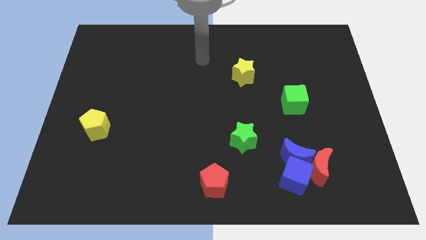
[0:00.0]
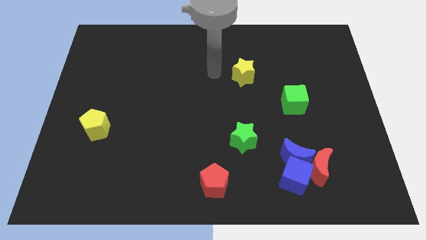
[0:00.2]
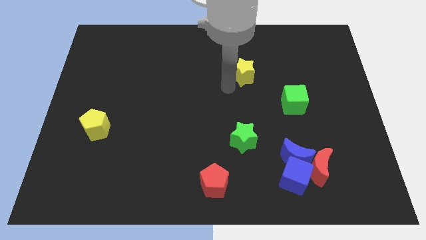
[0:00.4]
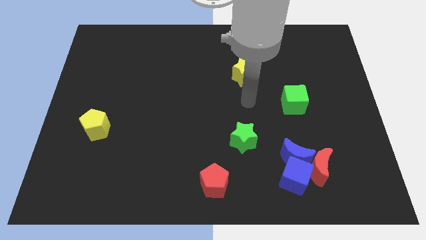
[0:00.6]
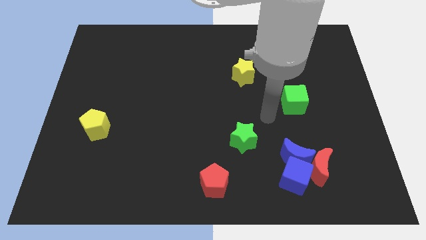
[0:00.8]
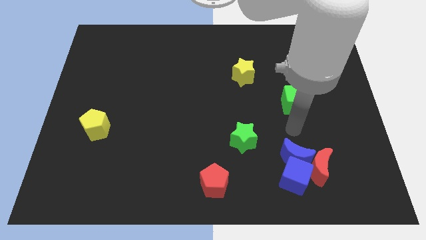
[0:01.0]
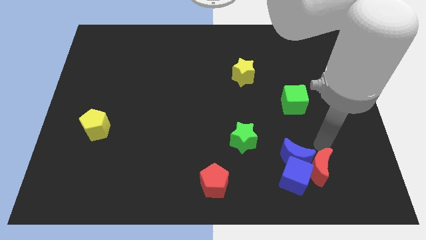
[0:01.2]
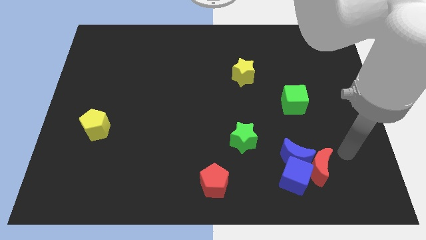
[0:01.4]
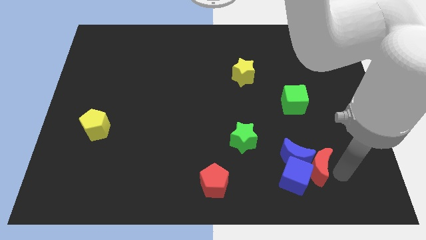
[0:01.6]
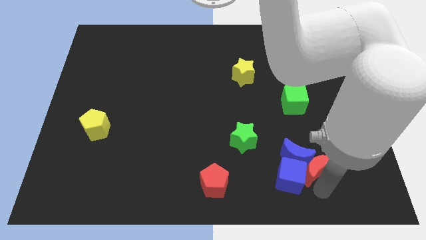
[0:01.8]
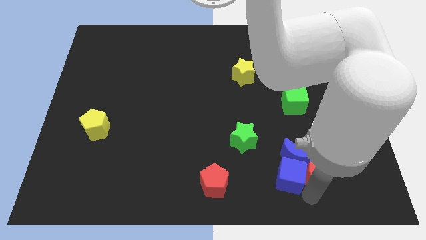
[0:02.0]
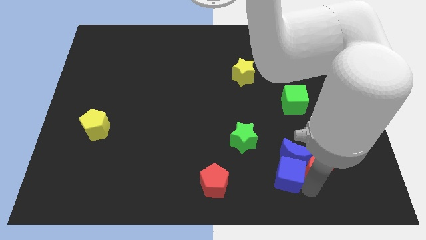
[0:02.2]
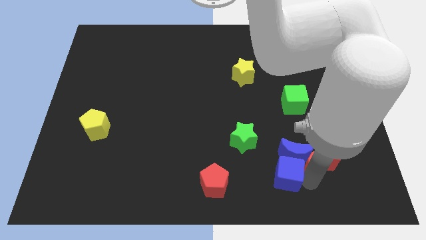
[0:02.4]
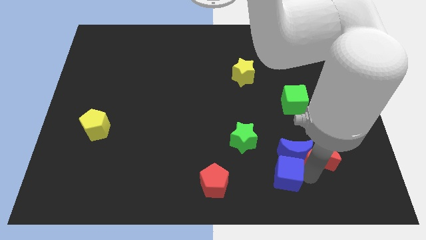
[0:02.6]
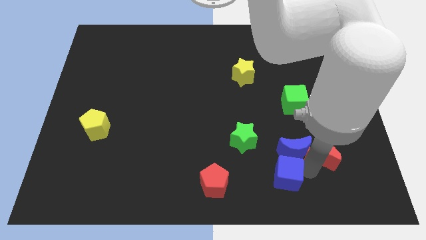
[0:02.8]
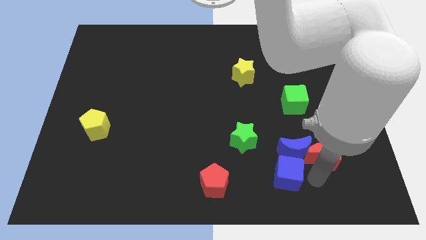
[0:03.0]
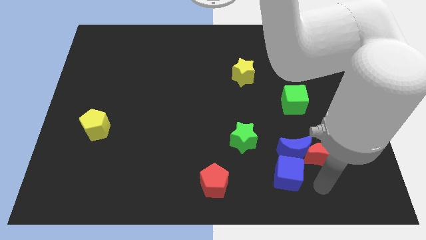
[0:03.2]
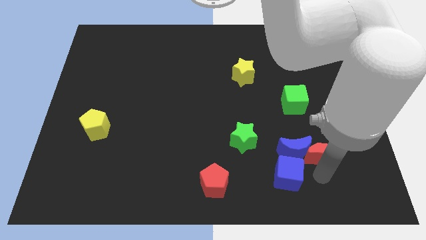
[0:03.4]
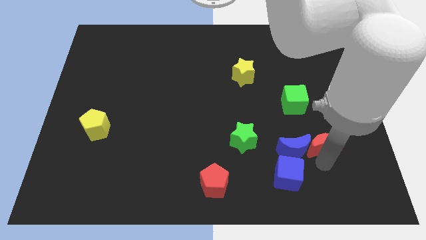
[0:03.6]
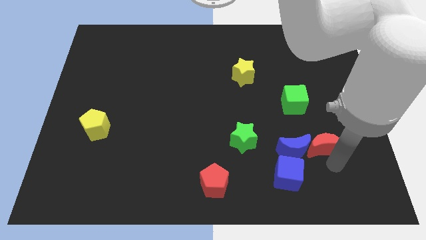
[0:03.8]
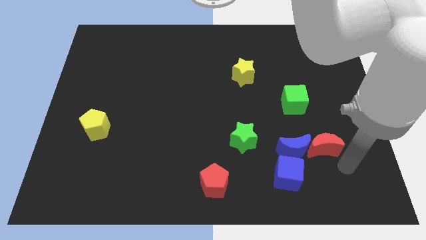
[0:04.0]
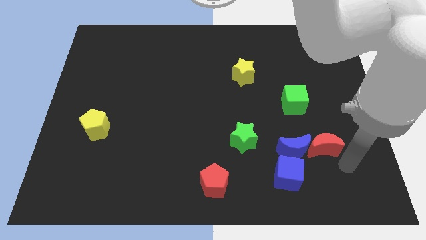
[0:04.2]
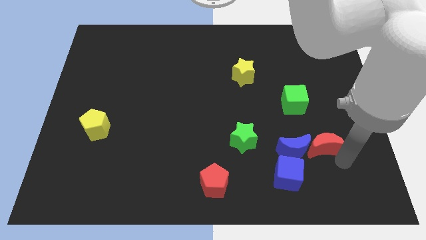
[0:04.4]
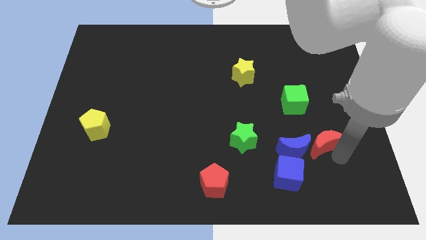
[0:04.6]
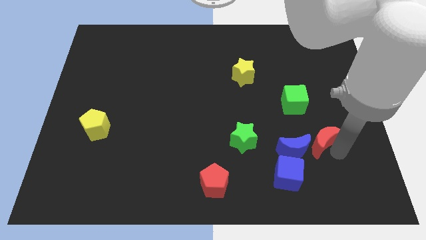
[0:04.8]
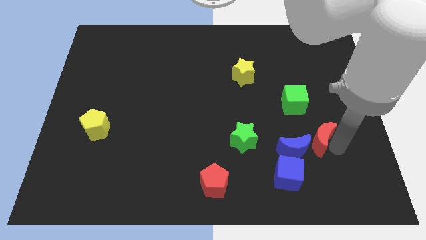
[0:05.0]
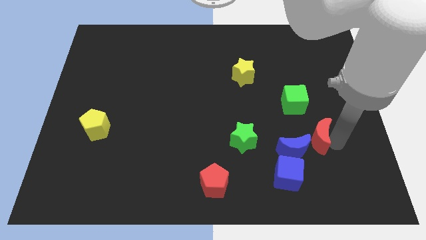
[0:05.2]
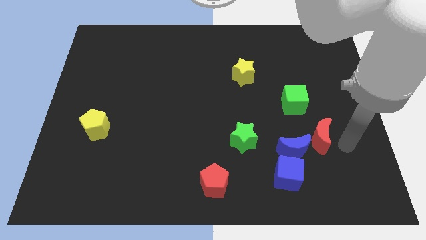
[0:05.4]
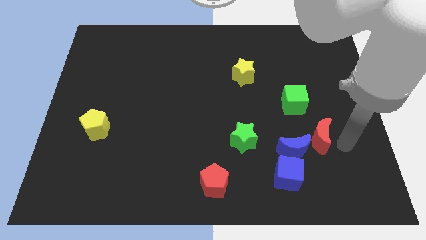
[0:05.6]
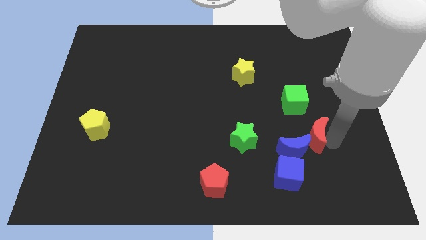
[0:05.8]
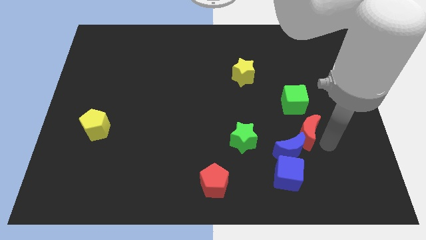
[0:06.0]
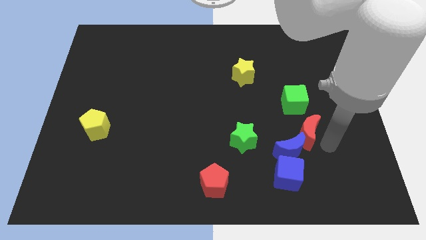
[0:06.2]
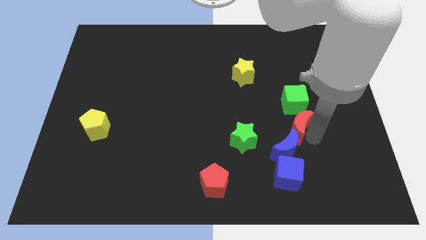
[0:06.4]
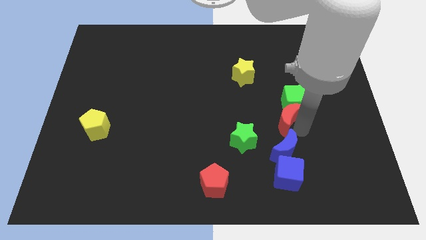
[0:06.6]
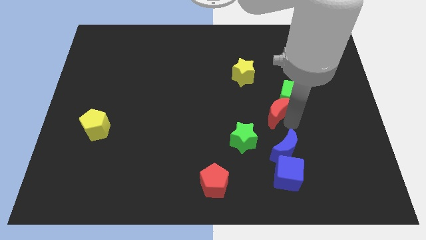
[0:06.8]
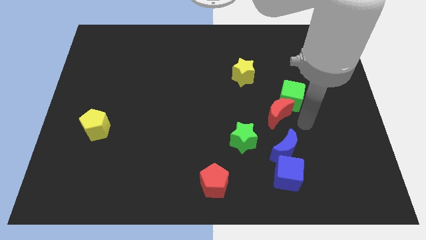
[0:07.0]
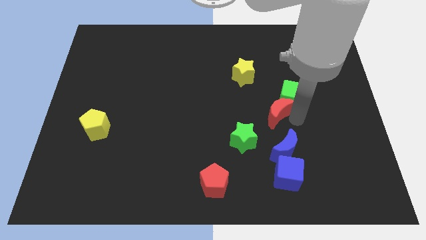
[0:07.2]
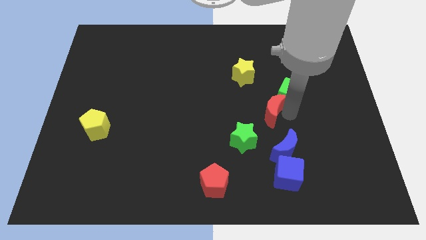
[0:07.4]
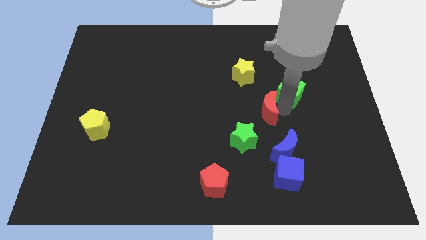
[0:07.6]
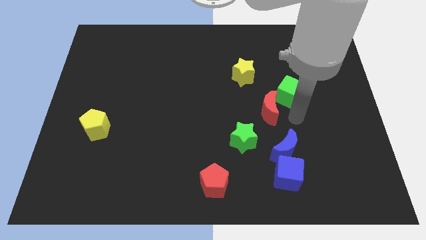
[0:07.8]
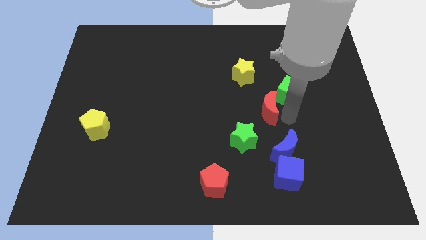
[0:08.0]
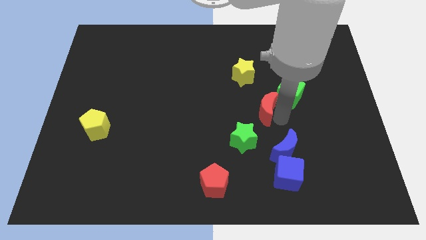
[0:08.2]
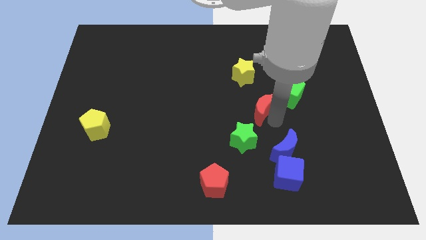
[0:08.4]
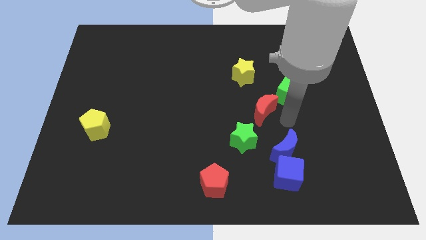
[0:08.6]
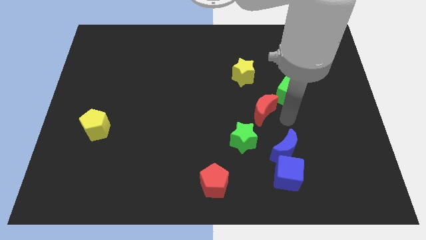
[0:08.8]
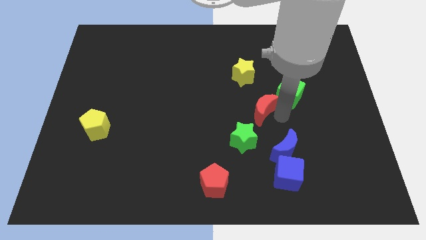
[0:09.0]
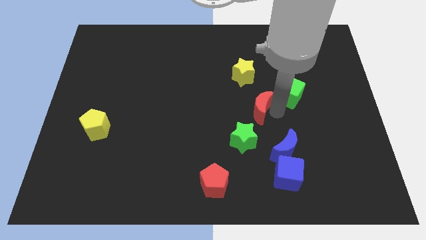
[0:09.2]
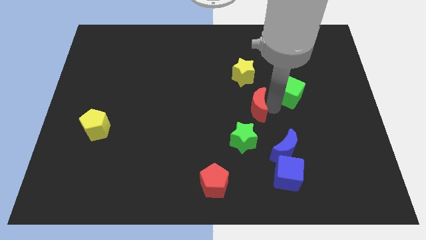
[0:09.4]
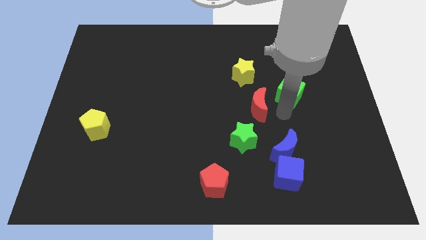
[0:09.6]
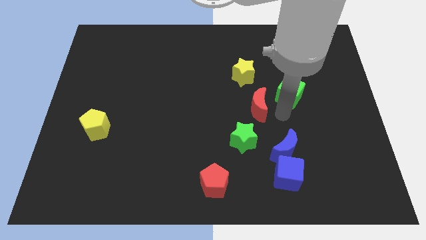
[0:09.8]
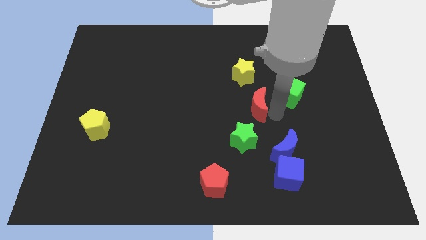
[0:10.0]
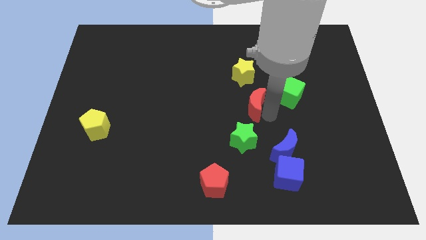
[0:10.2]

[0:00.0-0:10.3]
slide the red moon upwards and left

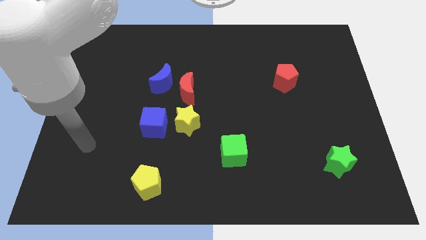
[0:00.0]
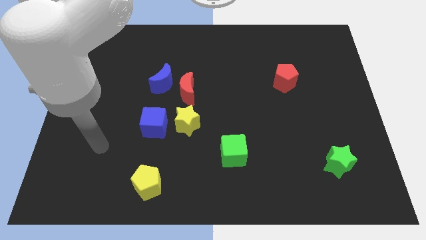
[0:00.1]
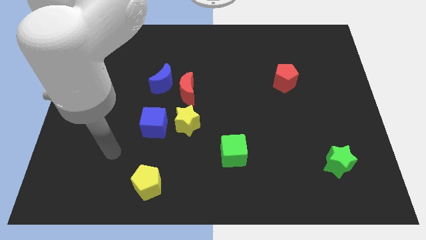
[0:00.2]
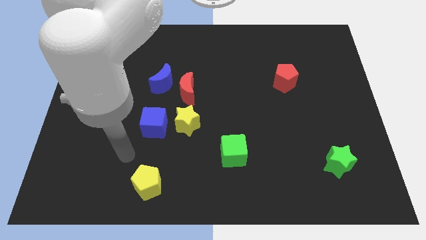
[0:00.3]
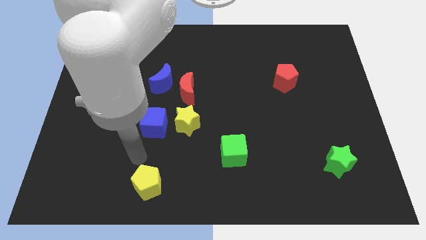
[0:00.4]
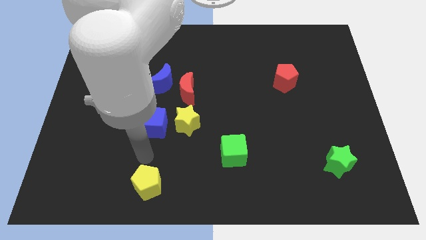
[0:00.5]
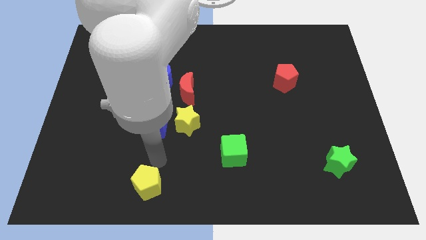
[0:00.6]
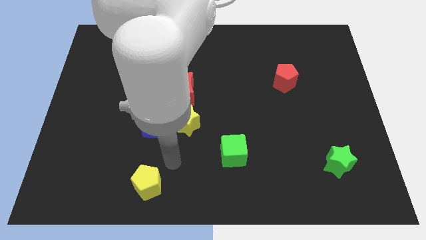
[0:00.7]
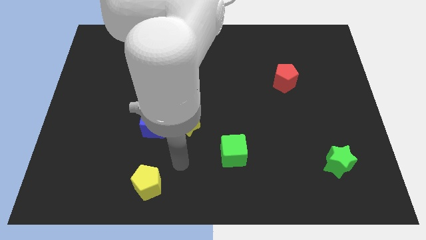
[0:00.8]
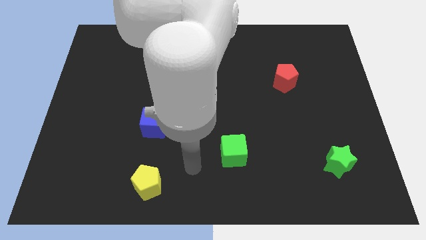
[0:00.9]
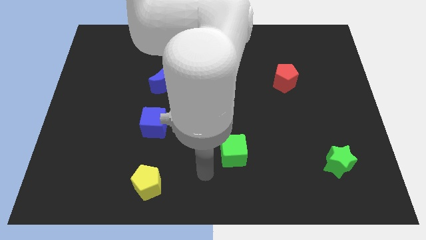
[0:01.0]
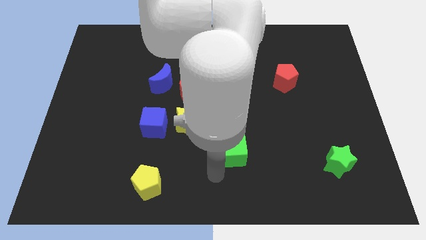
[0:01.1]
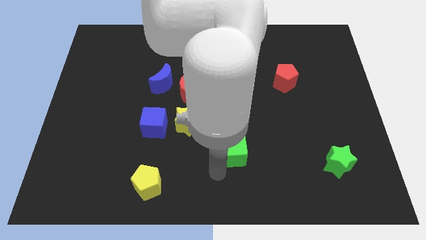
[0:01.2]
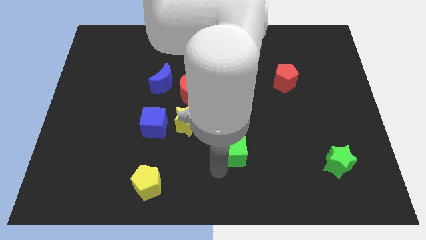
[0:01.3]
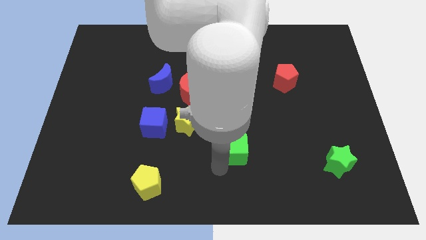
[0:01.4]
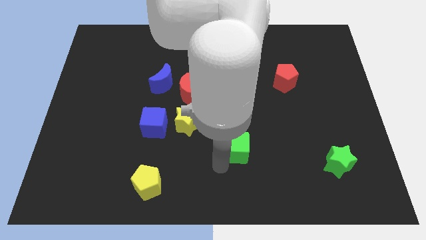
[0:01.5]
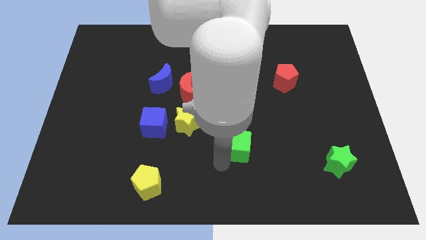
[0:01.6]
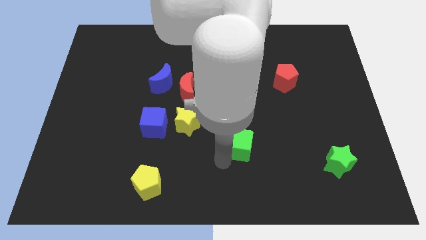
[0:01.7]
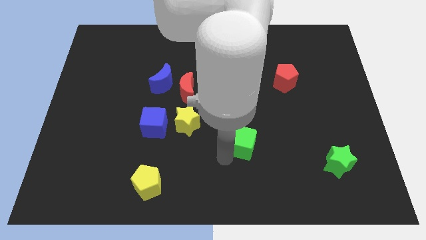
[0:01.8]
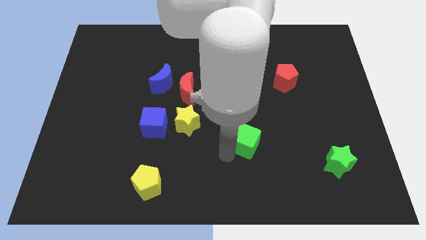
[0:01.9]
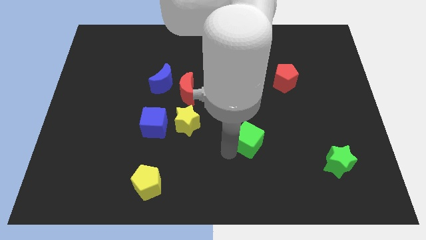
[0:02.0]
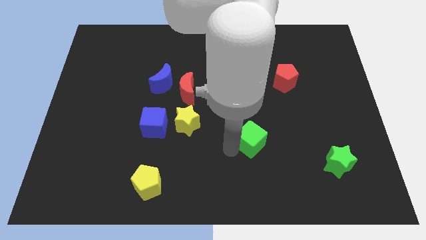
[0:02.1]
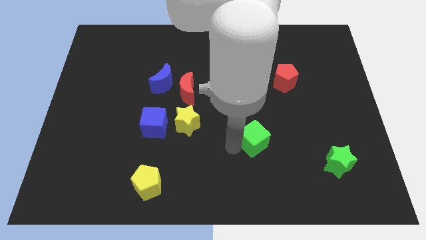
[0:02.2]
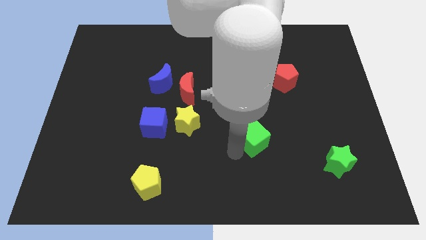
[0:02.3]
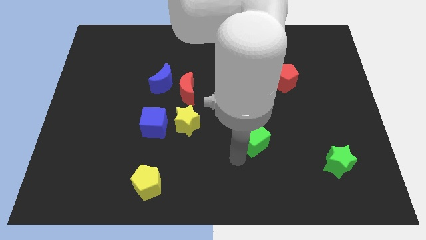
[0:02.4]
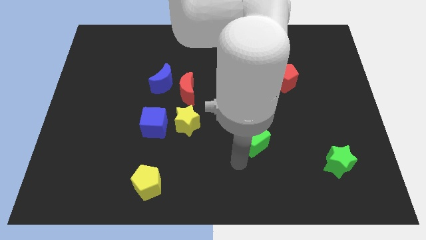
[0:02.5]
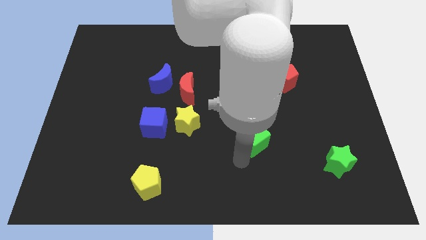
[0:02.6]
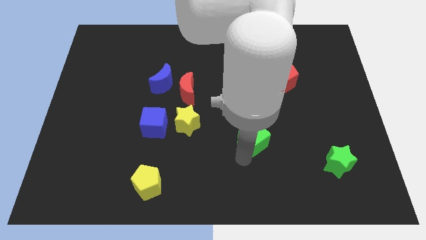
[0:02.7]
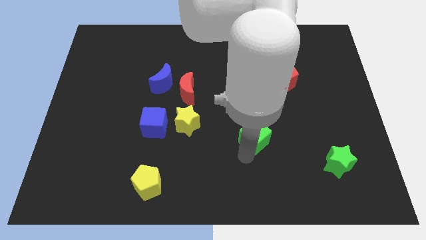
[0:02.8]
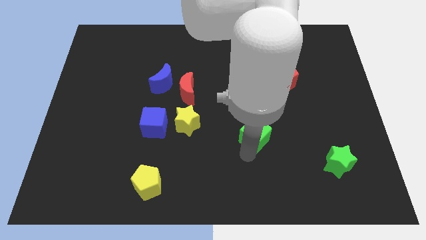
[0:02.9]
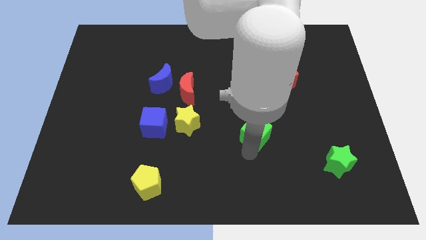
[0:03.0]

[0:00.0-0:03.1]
push the green cube diagonally upwards and to the right a bit
